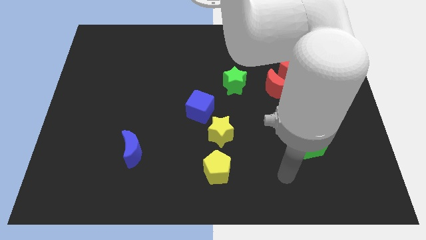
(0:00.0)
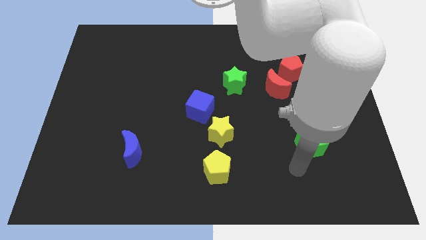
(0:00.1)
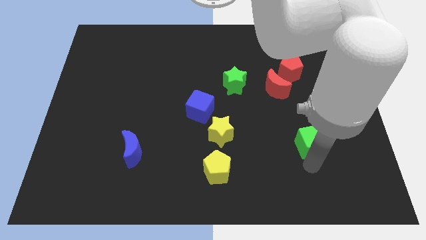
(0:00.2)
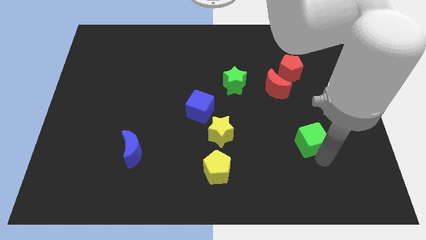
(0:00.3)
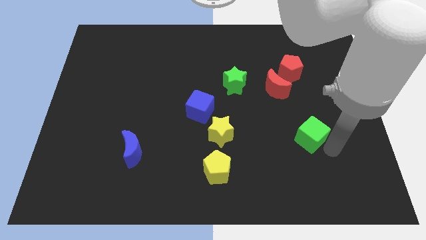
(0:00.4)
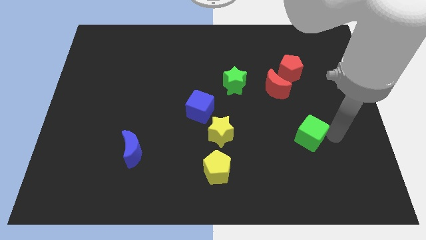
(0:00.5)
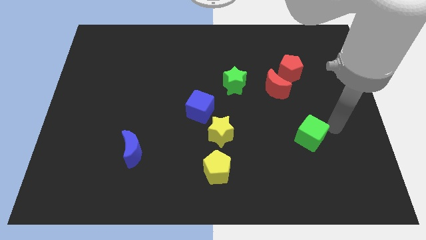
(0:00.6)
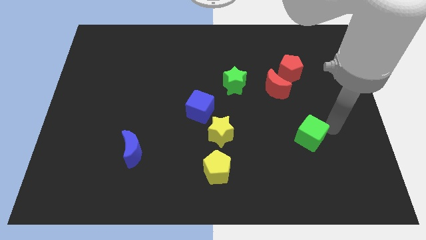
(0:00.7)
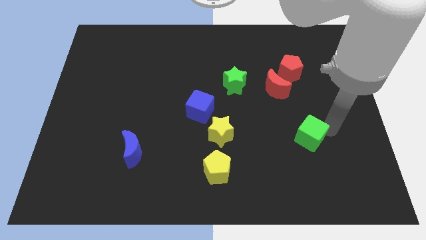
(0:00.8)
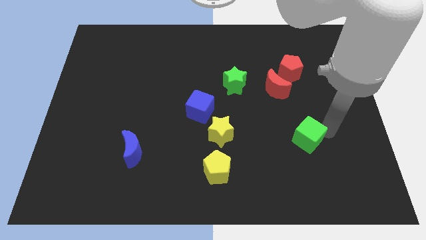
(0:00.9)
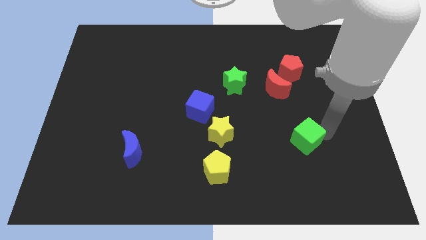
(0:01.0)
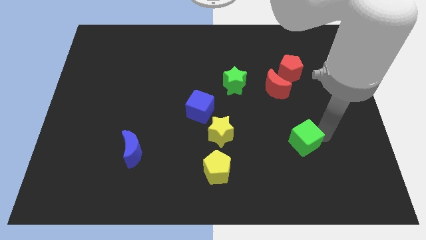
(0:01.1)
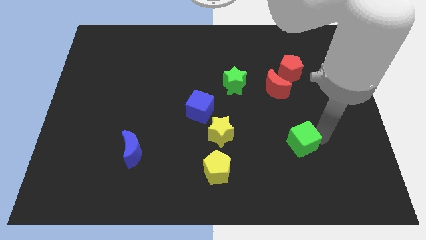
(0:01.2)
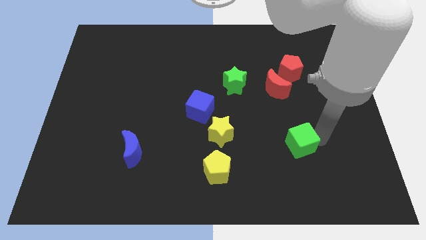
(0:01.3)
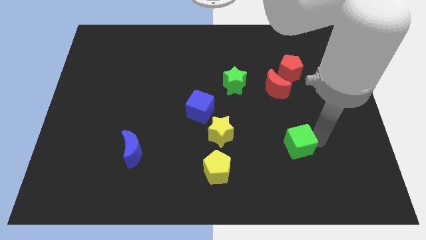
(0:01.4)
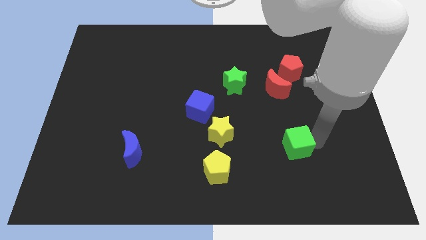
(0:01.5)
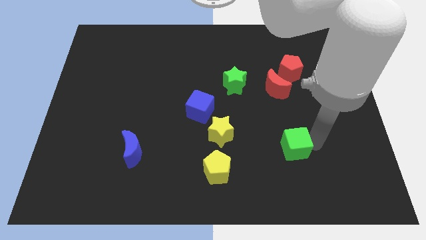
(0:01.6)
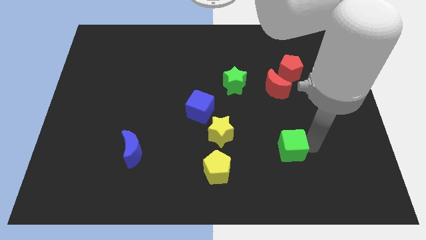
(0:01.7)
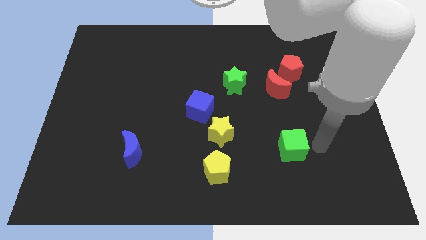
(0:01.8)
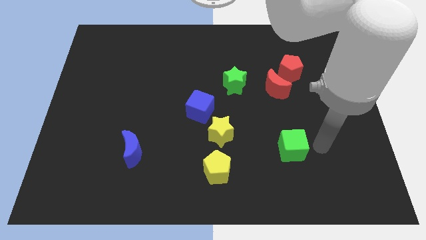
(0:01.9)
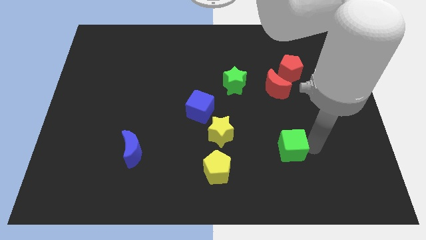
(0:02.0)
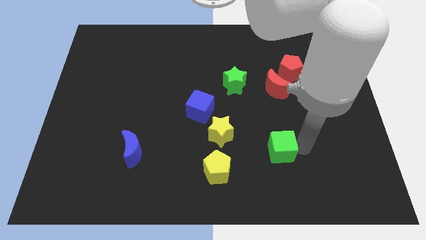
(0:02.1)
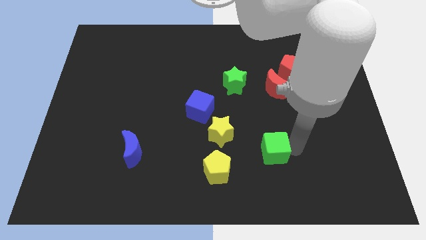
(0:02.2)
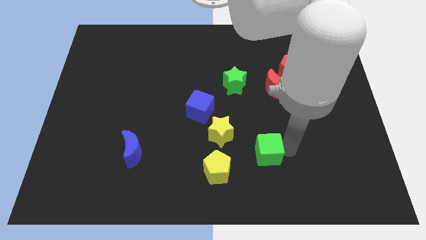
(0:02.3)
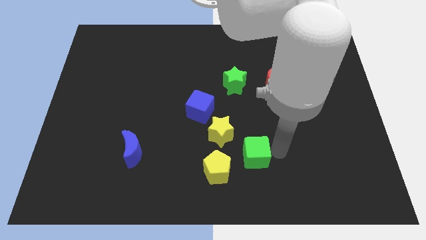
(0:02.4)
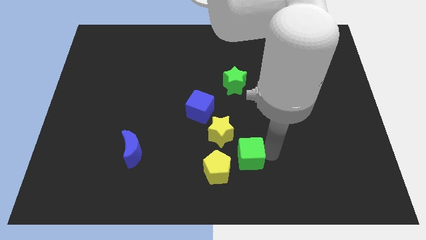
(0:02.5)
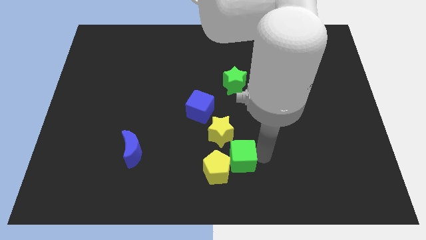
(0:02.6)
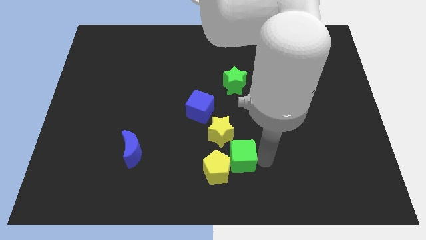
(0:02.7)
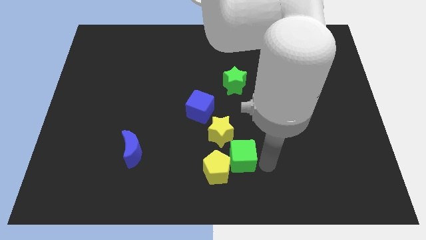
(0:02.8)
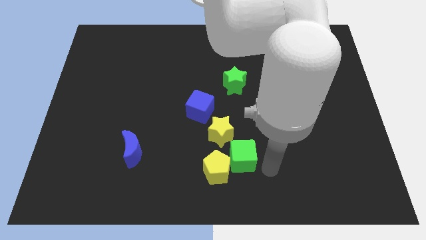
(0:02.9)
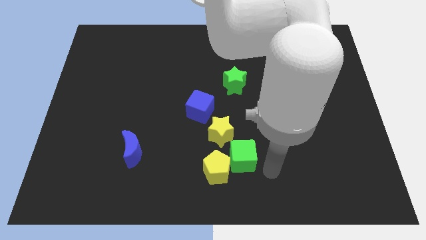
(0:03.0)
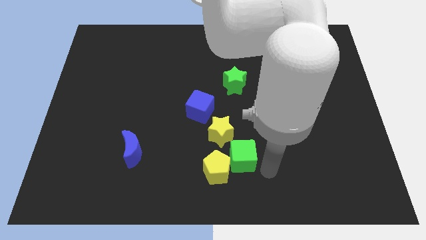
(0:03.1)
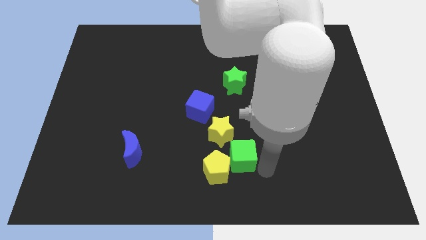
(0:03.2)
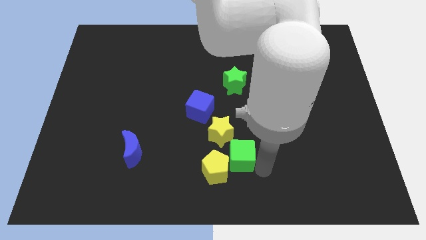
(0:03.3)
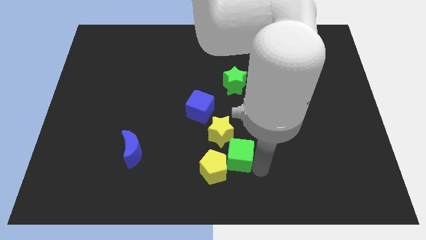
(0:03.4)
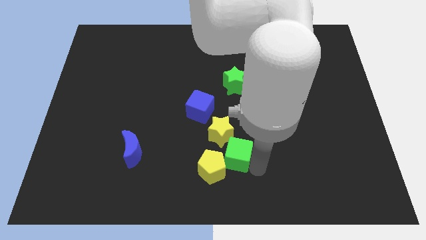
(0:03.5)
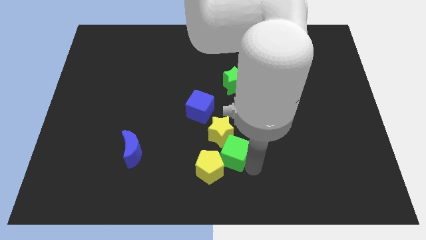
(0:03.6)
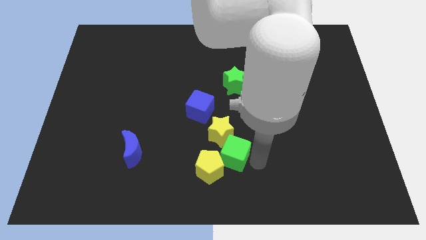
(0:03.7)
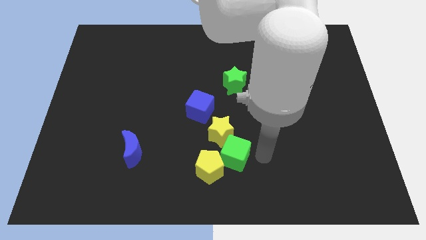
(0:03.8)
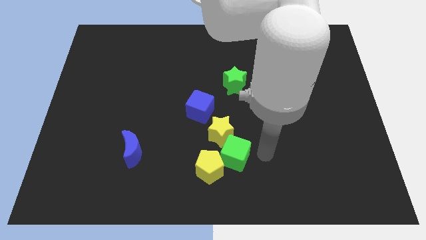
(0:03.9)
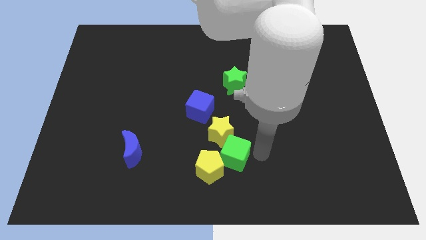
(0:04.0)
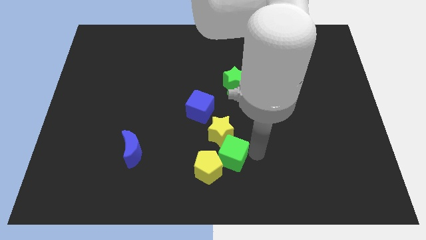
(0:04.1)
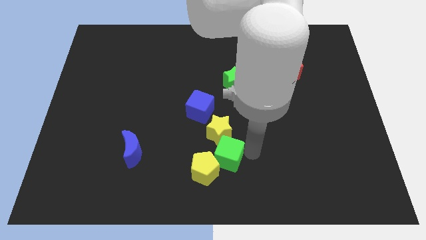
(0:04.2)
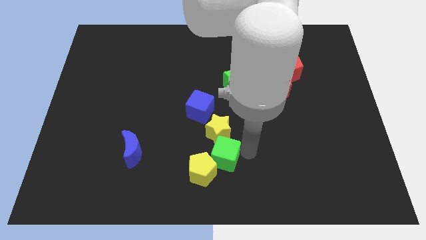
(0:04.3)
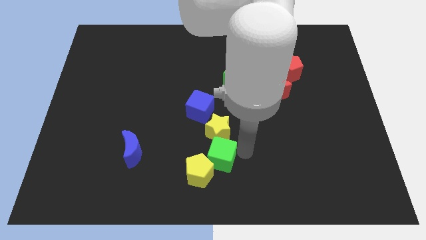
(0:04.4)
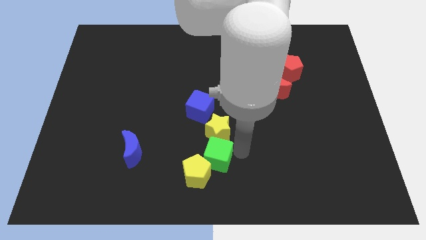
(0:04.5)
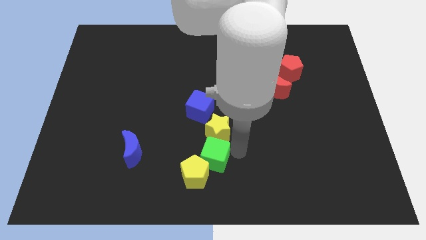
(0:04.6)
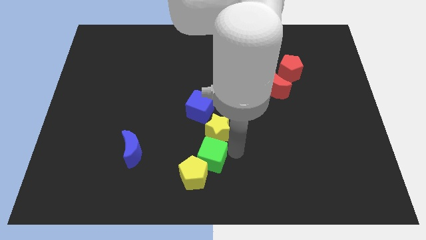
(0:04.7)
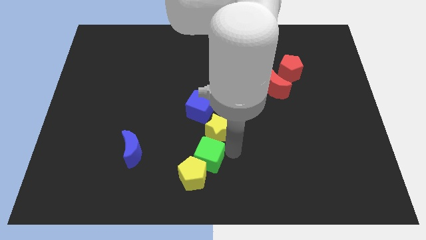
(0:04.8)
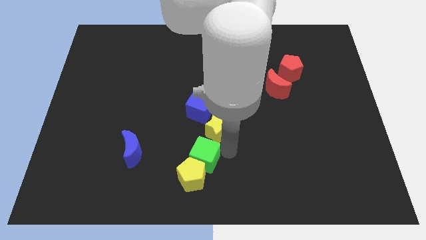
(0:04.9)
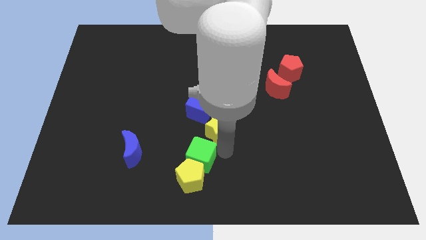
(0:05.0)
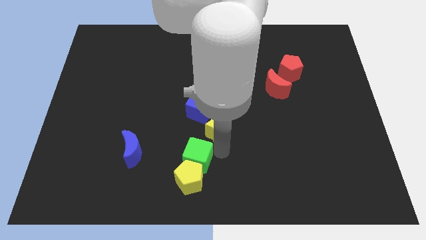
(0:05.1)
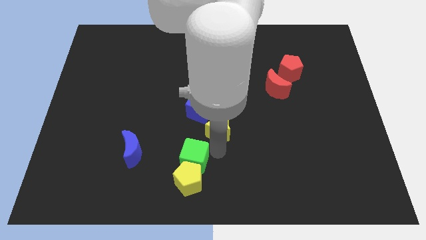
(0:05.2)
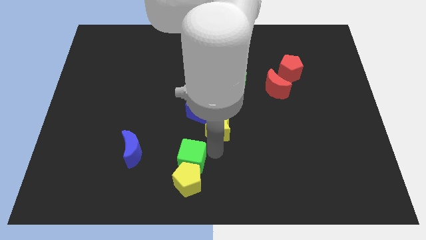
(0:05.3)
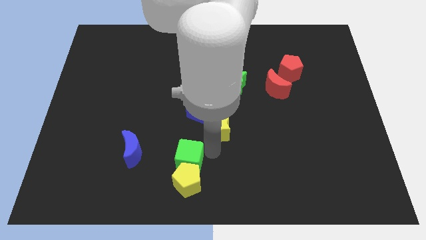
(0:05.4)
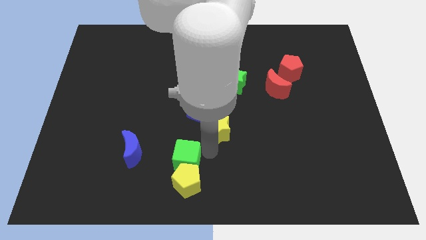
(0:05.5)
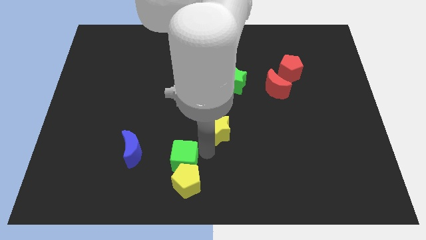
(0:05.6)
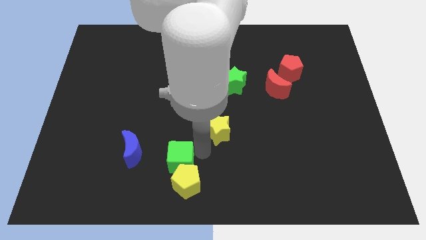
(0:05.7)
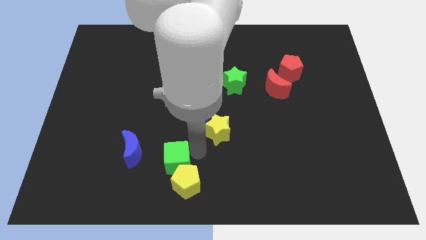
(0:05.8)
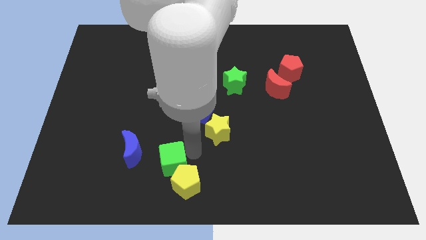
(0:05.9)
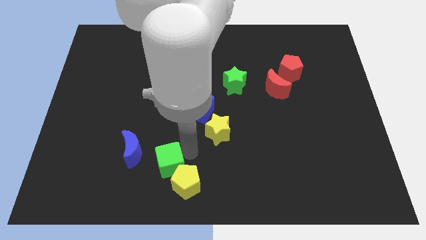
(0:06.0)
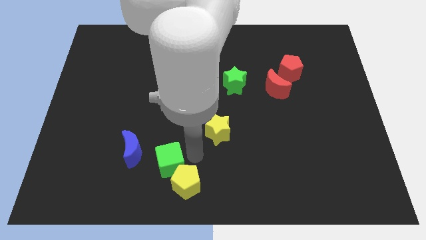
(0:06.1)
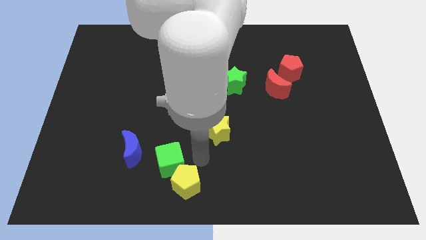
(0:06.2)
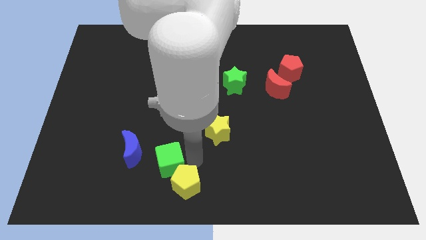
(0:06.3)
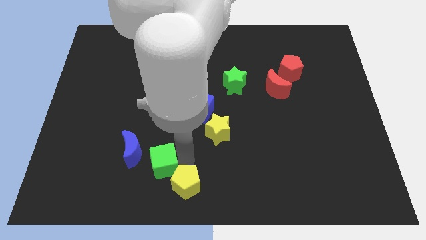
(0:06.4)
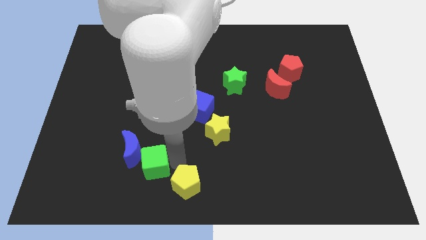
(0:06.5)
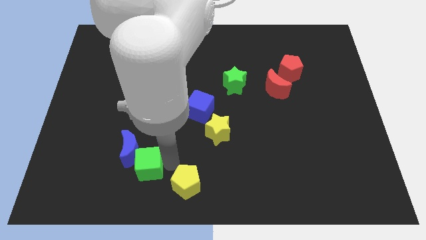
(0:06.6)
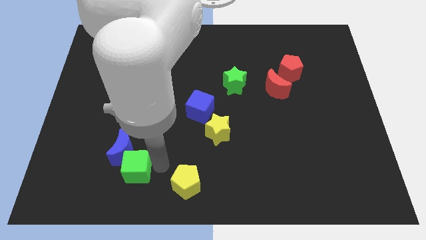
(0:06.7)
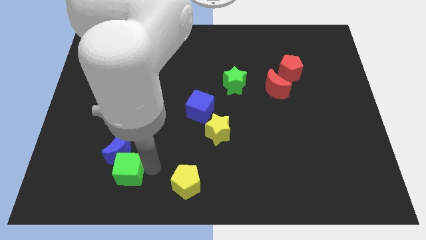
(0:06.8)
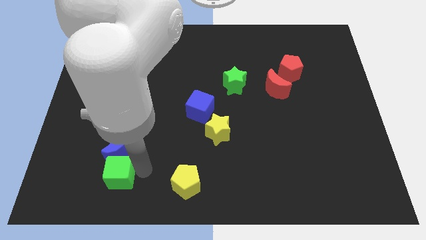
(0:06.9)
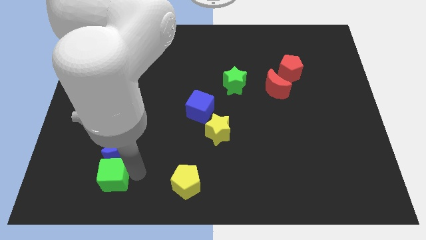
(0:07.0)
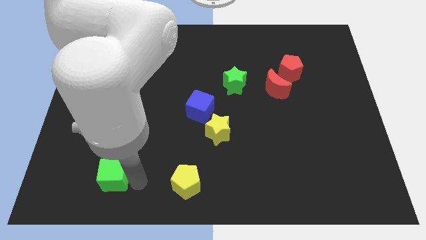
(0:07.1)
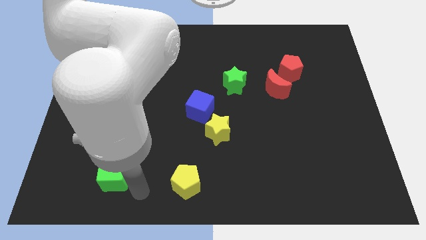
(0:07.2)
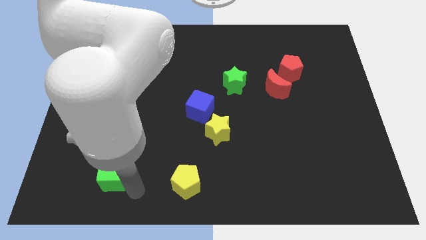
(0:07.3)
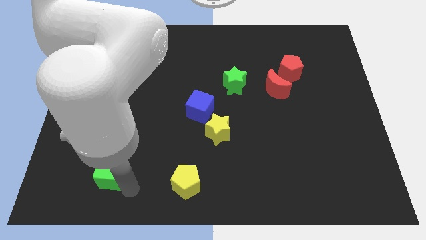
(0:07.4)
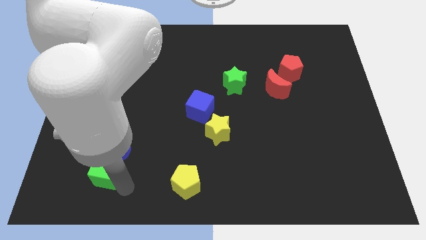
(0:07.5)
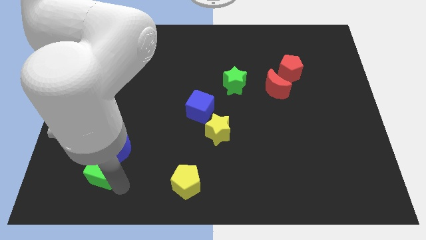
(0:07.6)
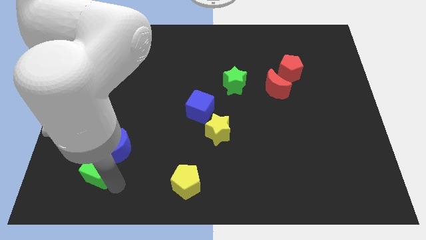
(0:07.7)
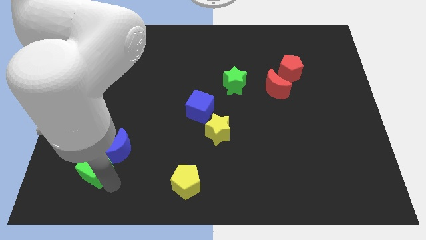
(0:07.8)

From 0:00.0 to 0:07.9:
put the green cube to the left of the blue moon
